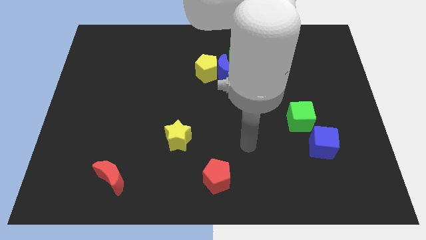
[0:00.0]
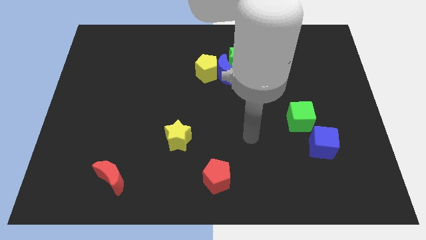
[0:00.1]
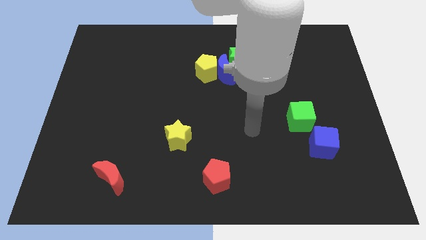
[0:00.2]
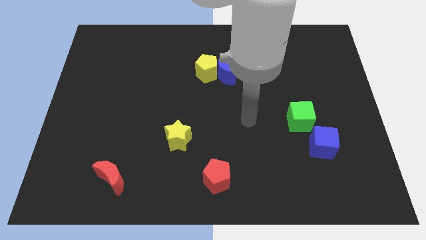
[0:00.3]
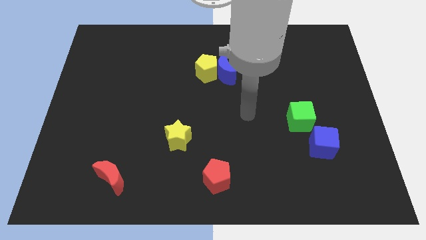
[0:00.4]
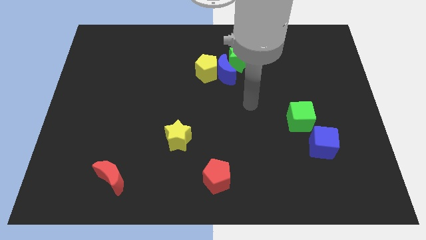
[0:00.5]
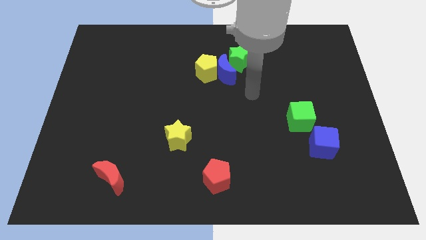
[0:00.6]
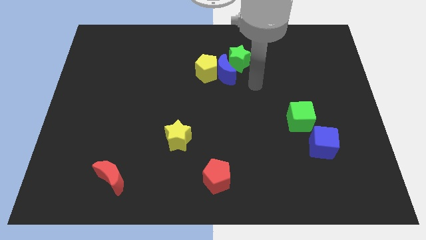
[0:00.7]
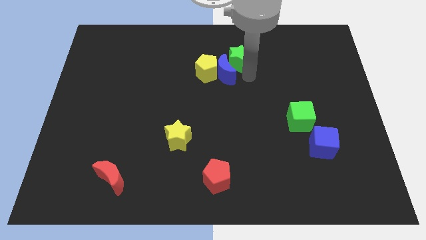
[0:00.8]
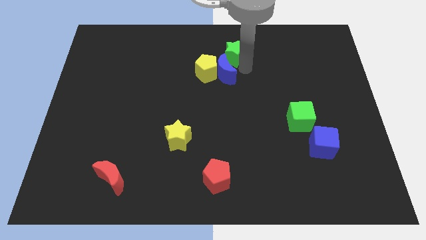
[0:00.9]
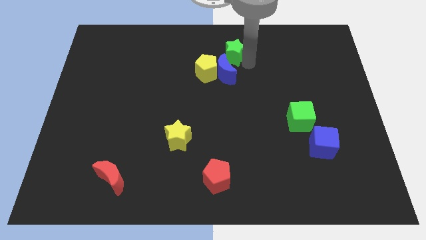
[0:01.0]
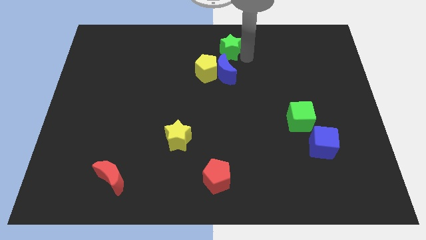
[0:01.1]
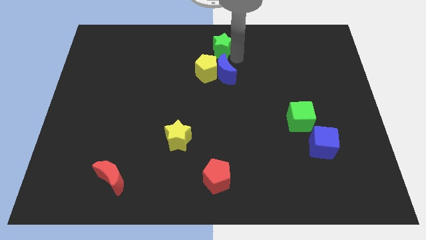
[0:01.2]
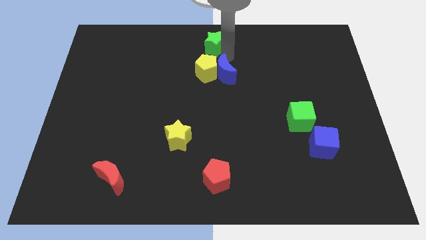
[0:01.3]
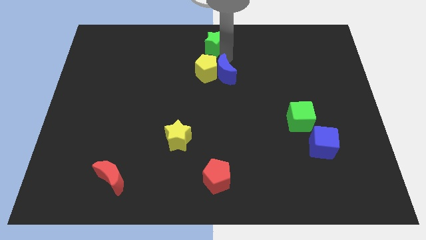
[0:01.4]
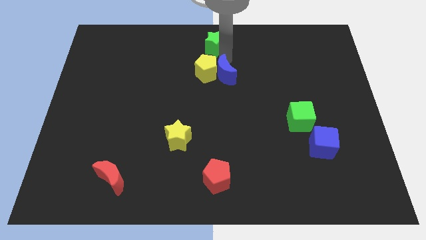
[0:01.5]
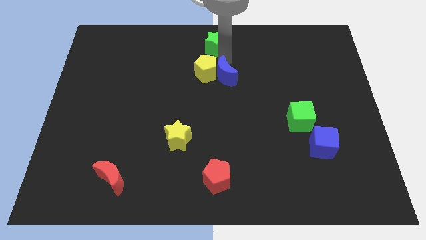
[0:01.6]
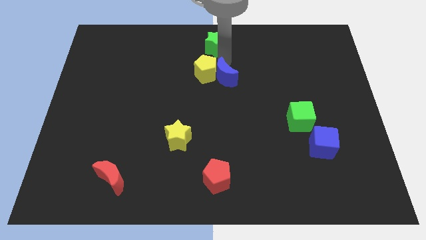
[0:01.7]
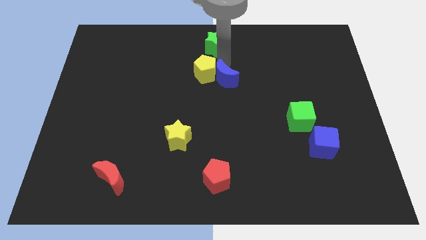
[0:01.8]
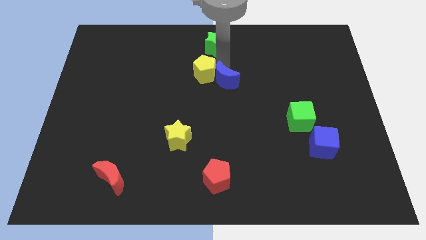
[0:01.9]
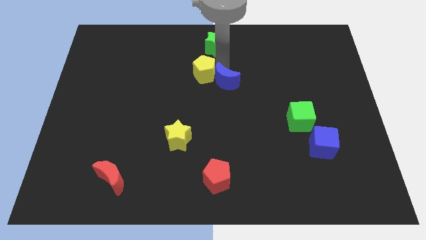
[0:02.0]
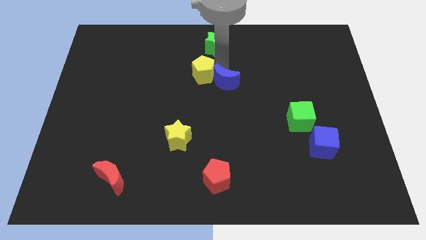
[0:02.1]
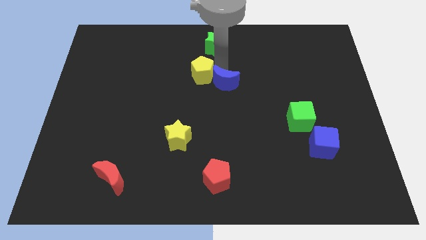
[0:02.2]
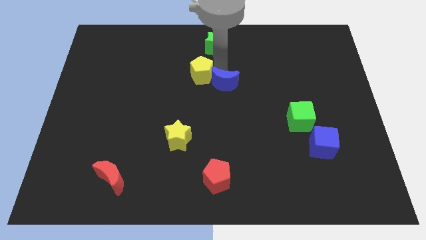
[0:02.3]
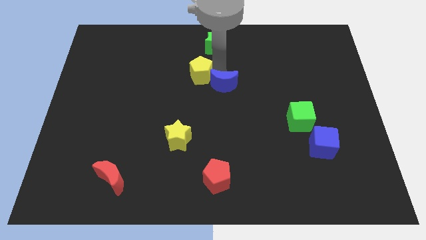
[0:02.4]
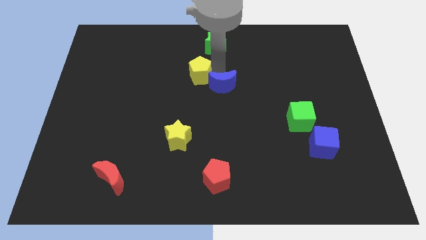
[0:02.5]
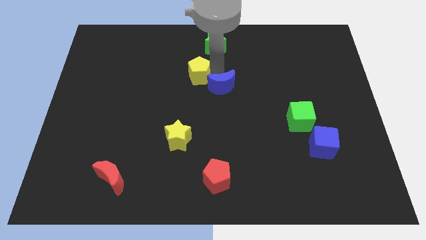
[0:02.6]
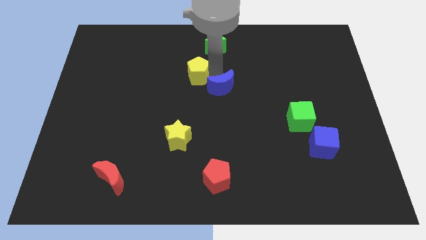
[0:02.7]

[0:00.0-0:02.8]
pull the blue moon apart from the yellow pentagon and green star

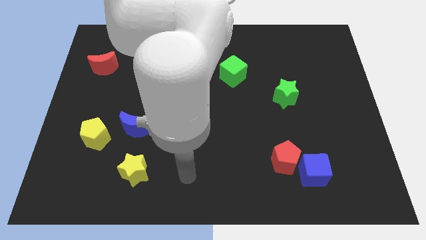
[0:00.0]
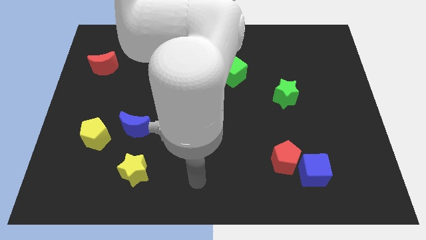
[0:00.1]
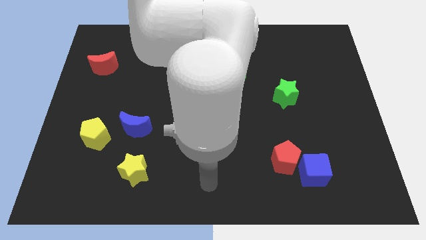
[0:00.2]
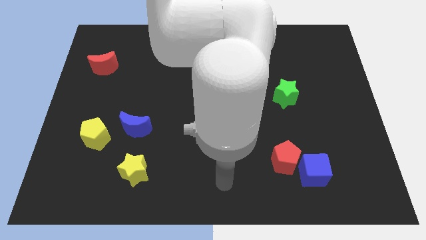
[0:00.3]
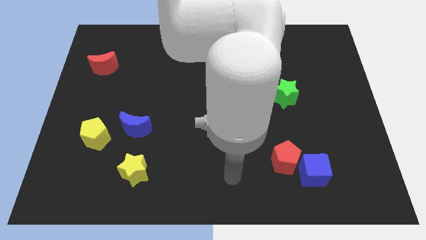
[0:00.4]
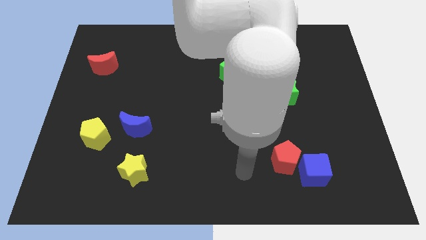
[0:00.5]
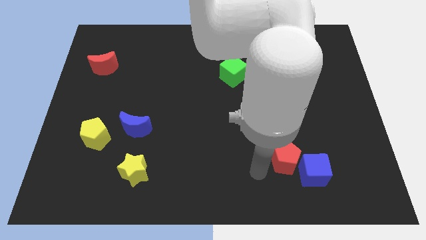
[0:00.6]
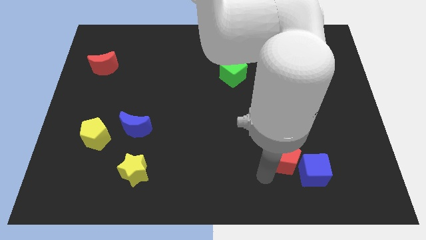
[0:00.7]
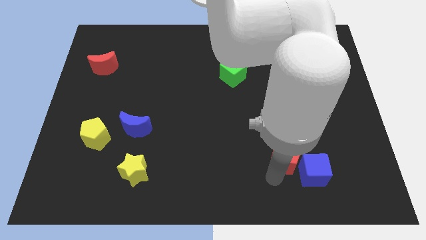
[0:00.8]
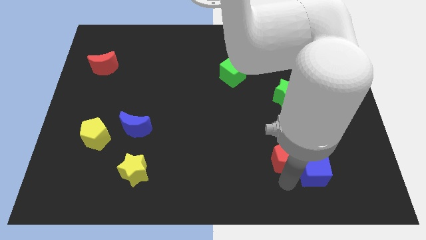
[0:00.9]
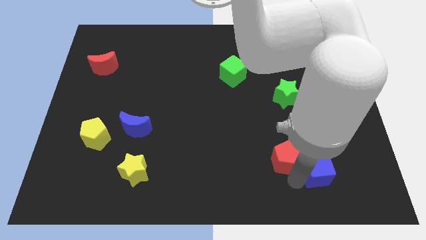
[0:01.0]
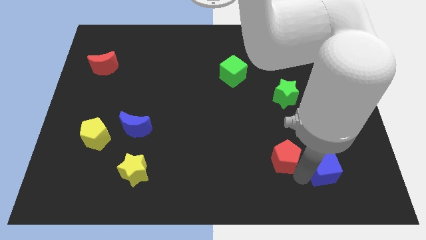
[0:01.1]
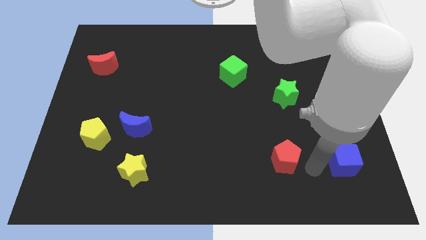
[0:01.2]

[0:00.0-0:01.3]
move the red pentagon away from the blue cube

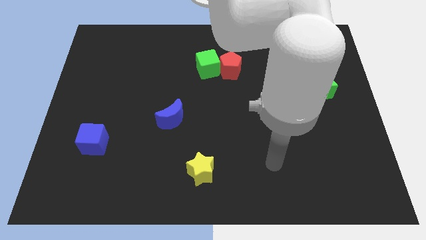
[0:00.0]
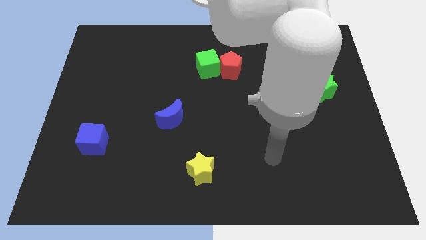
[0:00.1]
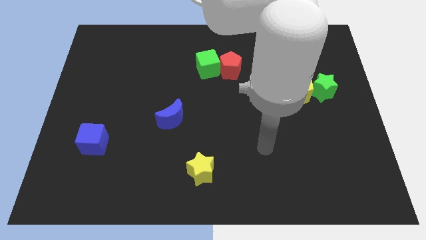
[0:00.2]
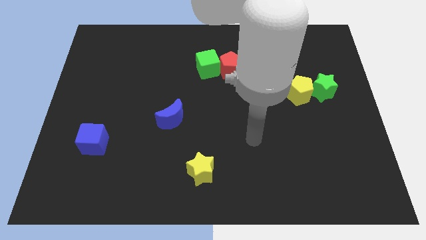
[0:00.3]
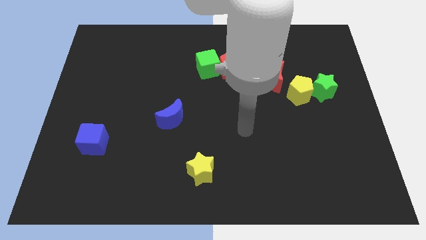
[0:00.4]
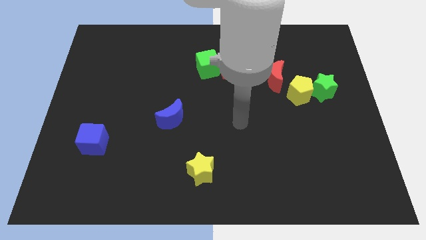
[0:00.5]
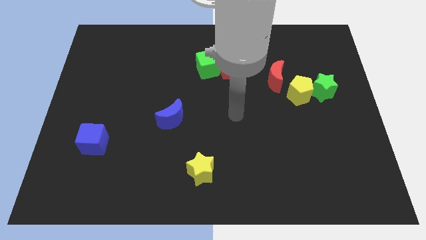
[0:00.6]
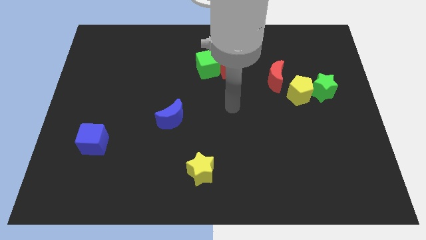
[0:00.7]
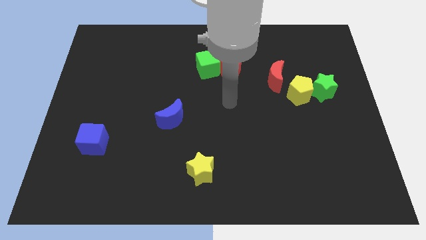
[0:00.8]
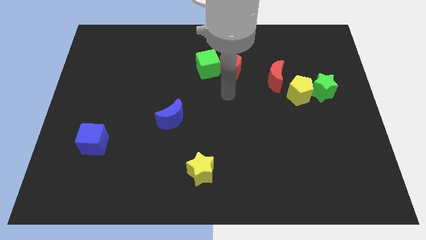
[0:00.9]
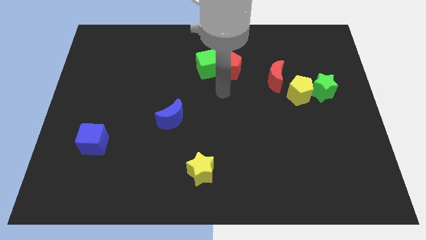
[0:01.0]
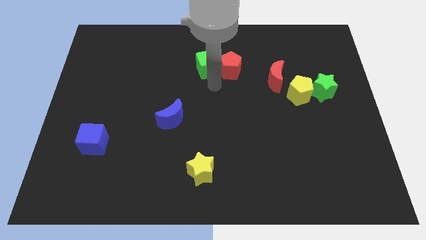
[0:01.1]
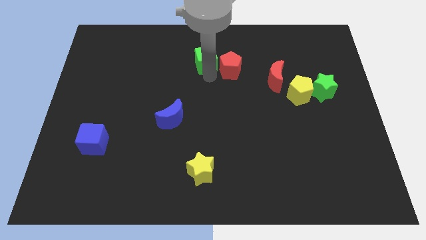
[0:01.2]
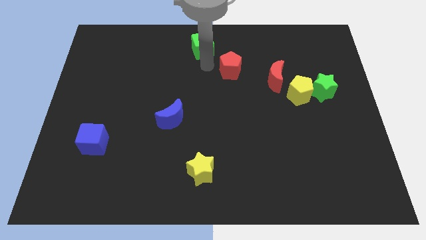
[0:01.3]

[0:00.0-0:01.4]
pull the red pentagon apart from the green cube

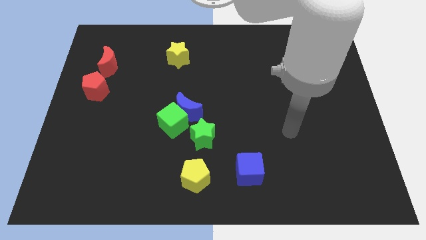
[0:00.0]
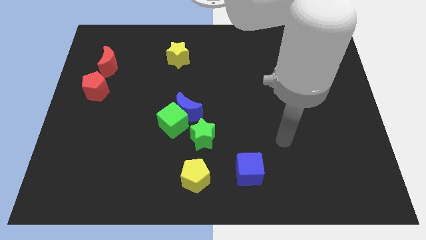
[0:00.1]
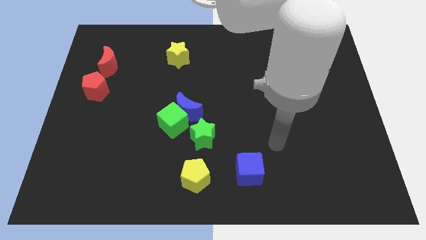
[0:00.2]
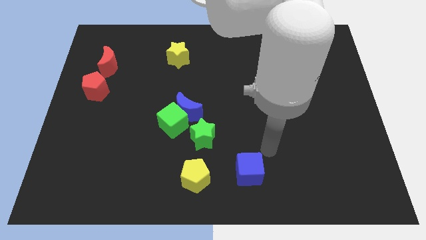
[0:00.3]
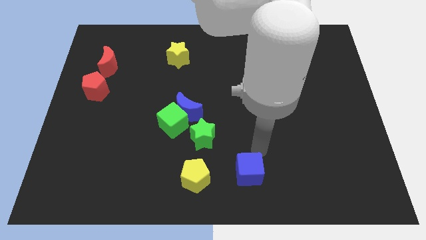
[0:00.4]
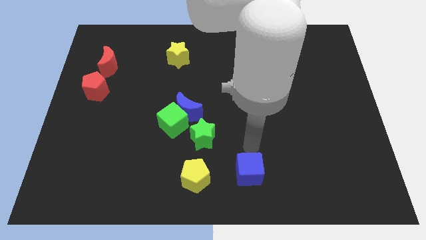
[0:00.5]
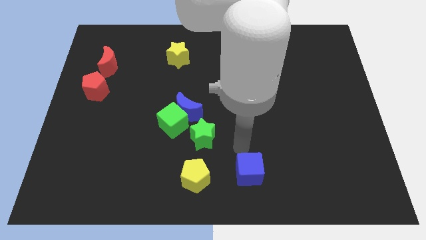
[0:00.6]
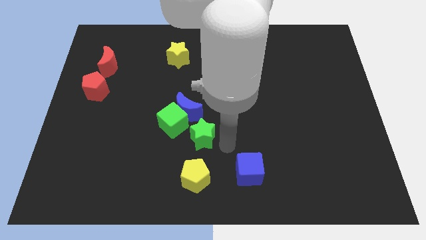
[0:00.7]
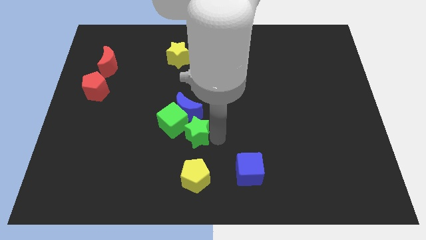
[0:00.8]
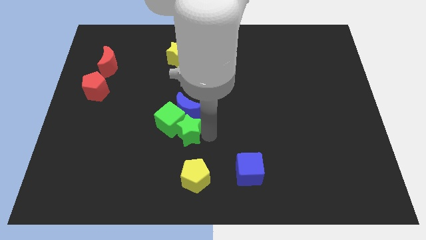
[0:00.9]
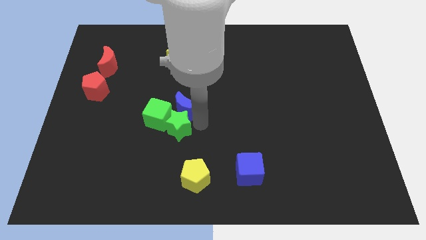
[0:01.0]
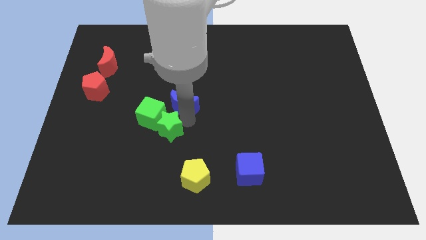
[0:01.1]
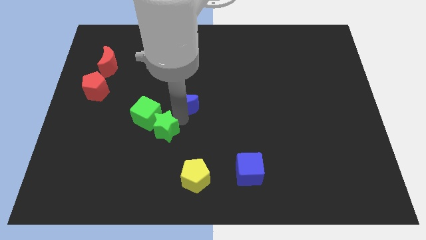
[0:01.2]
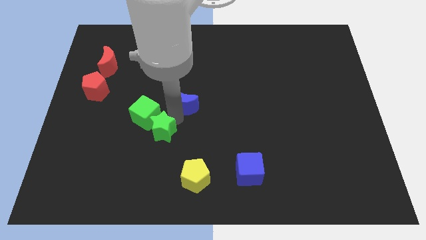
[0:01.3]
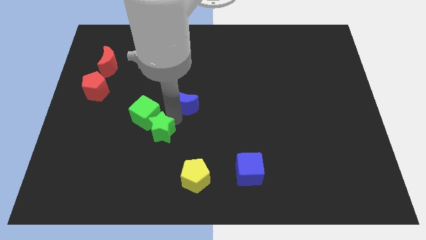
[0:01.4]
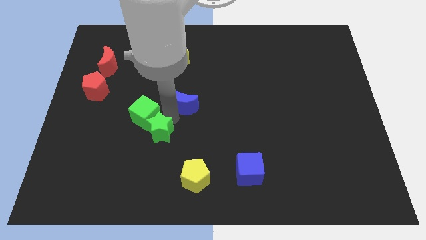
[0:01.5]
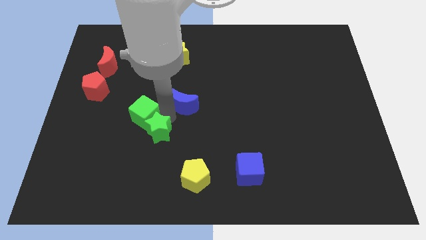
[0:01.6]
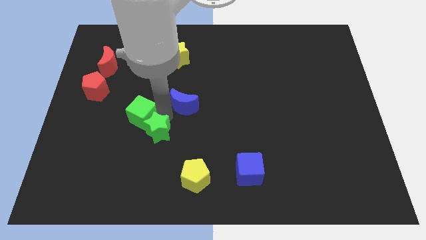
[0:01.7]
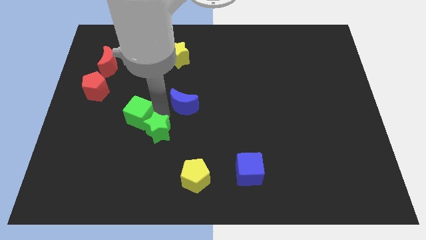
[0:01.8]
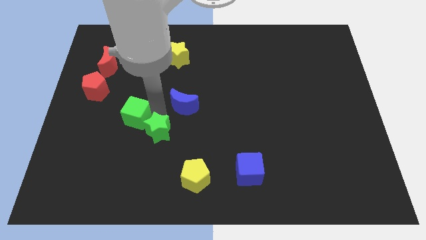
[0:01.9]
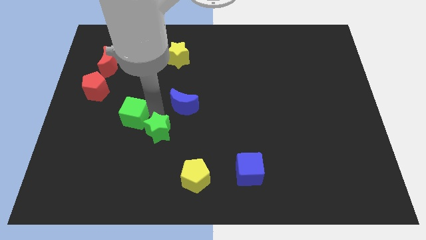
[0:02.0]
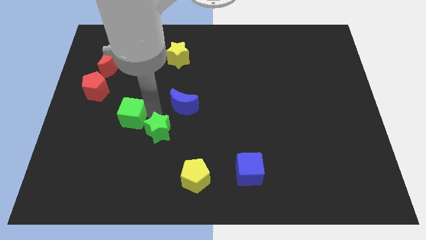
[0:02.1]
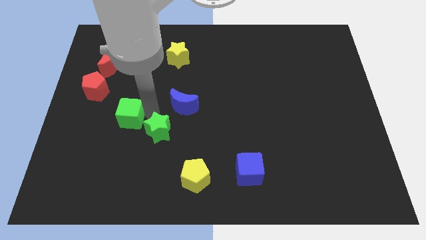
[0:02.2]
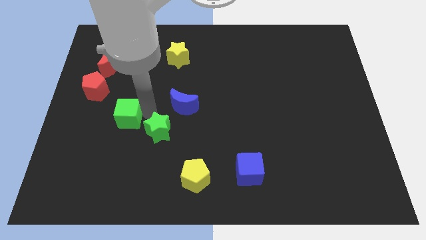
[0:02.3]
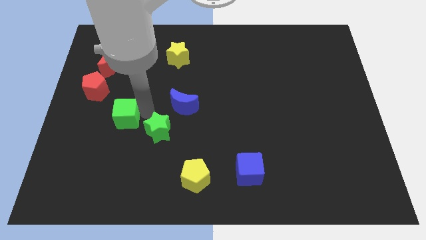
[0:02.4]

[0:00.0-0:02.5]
separate the green cube from the blue moon and green star

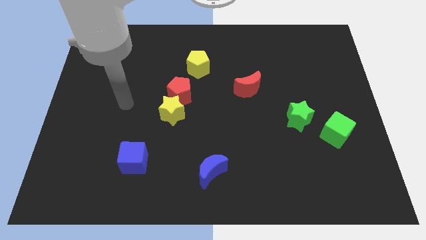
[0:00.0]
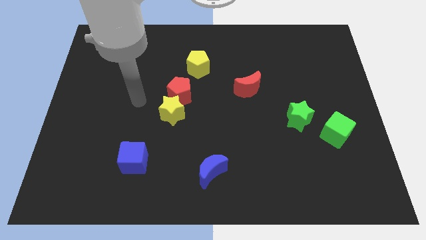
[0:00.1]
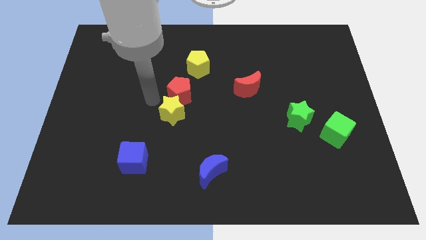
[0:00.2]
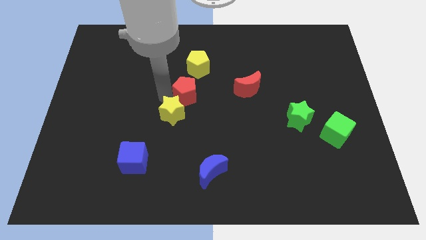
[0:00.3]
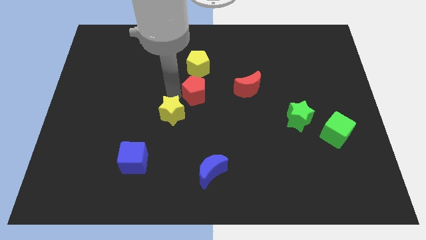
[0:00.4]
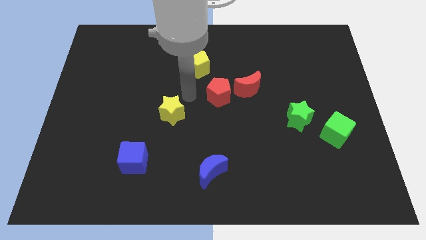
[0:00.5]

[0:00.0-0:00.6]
move the yellow star away from the red pentagon

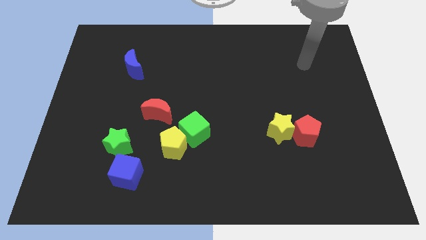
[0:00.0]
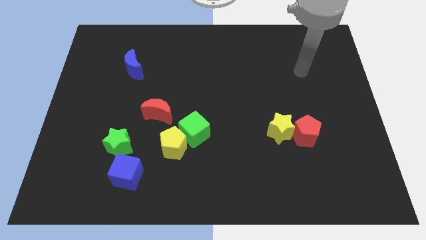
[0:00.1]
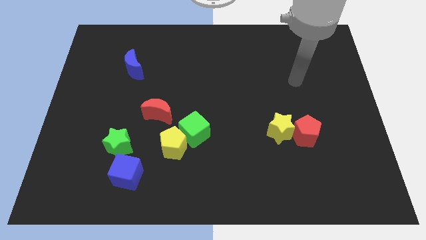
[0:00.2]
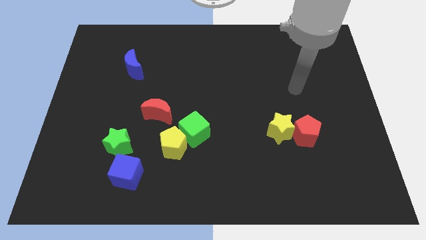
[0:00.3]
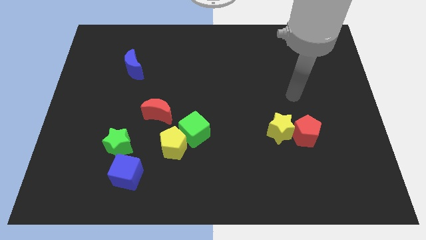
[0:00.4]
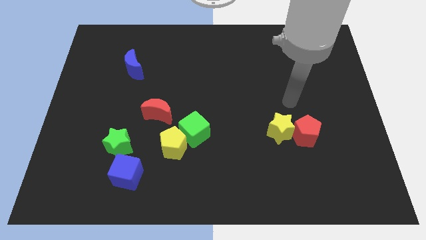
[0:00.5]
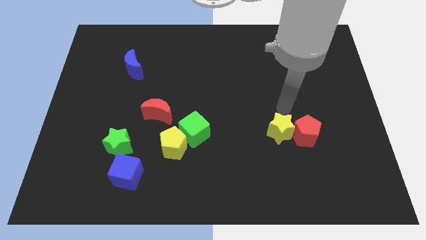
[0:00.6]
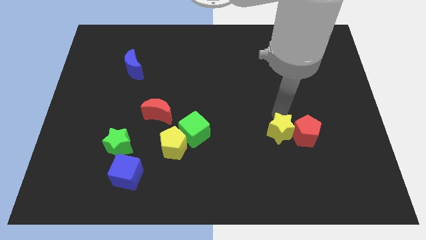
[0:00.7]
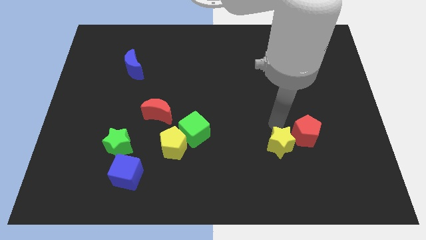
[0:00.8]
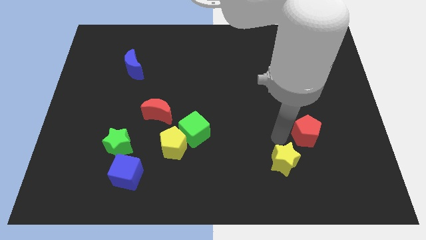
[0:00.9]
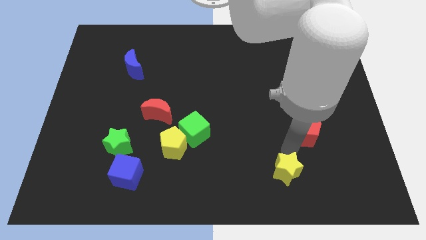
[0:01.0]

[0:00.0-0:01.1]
move the red pentagon away from the yellow star
